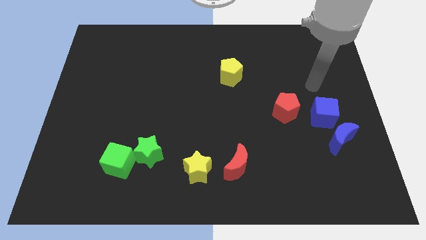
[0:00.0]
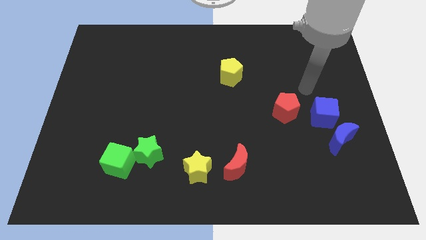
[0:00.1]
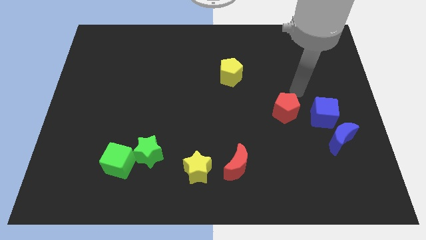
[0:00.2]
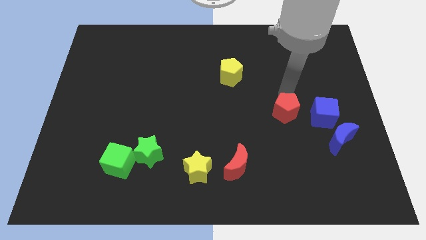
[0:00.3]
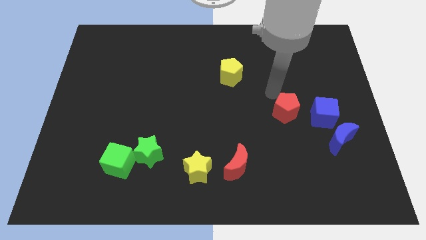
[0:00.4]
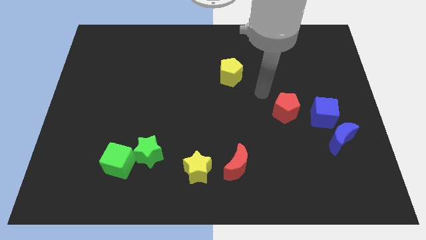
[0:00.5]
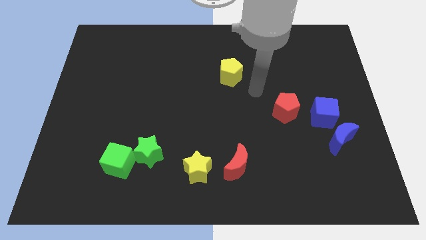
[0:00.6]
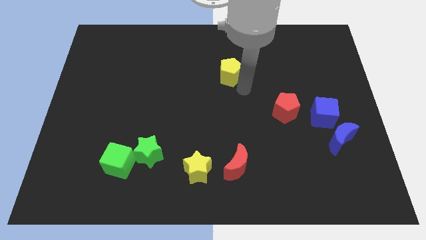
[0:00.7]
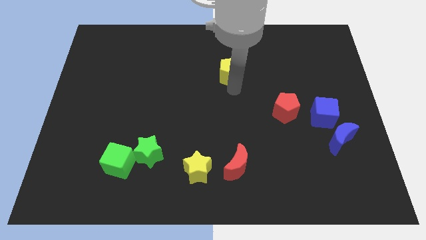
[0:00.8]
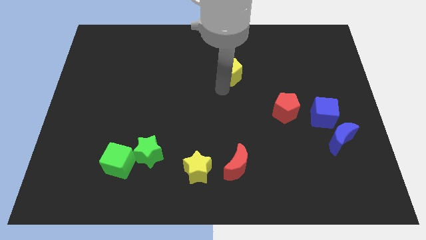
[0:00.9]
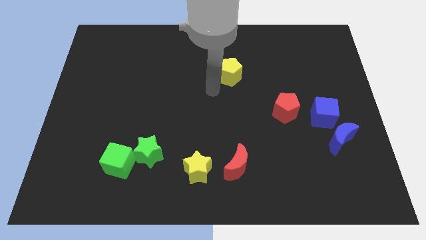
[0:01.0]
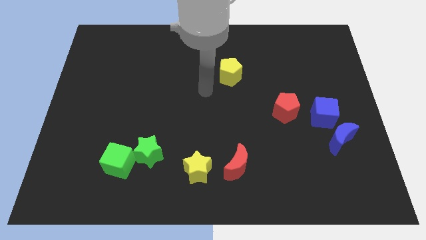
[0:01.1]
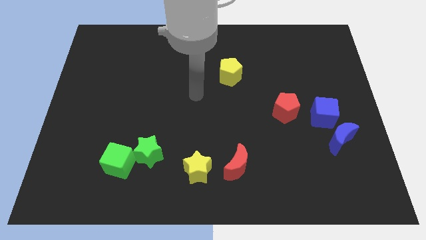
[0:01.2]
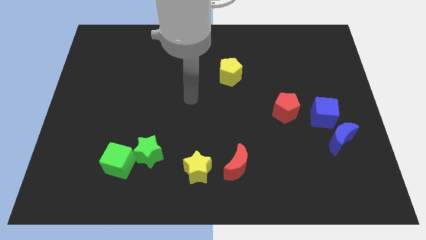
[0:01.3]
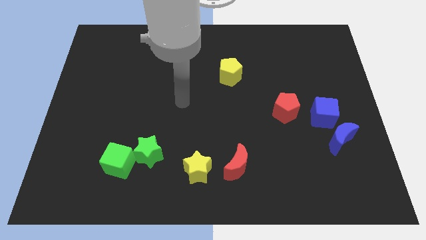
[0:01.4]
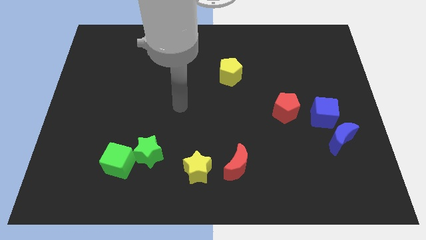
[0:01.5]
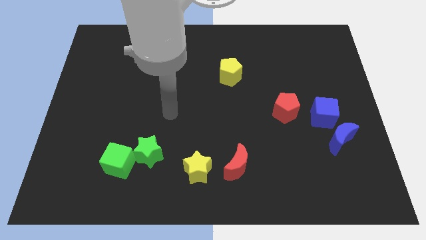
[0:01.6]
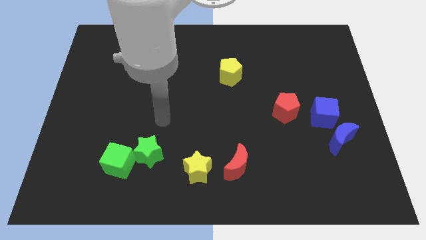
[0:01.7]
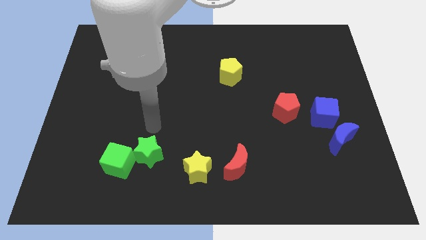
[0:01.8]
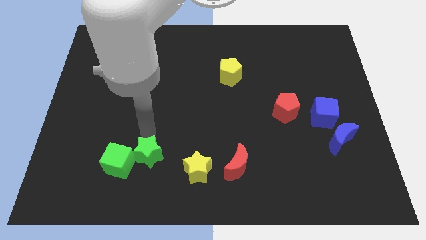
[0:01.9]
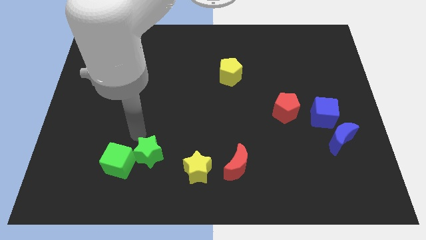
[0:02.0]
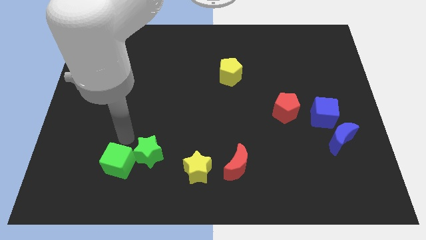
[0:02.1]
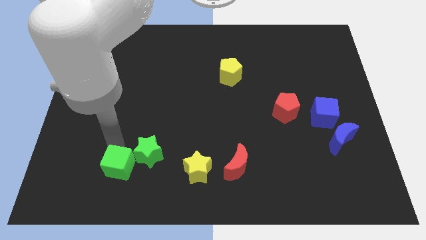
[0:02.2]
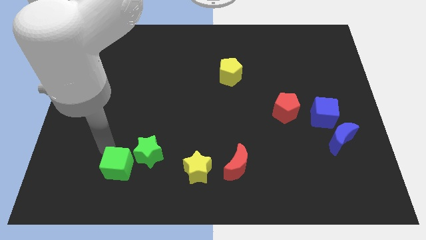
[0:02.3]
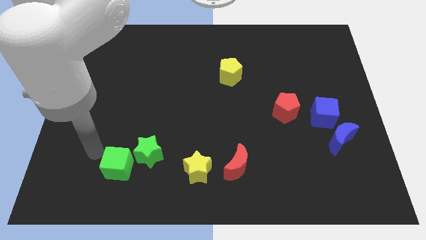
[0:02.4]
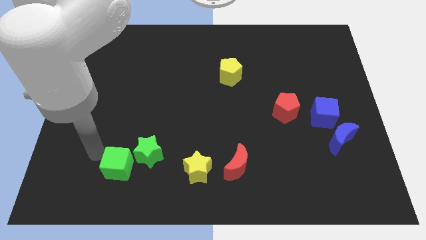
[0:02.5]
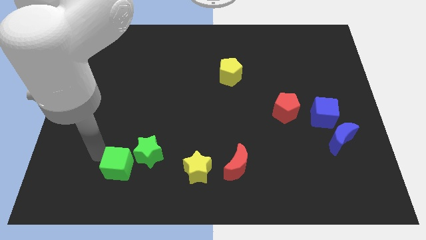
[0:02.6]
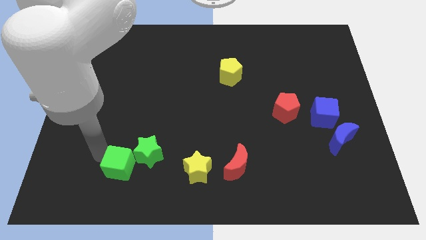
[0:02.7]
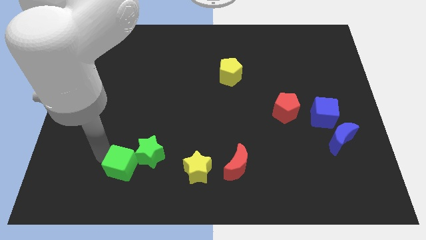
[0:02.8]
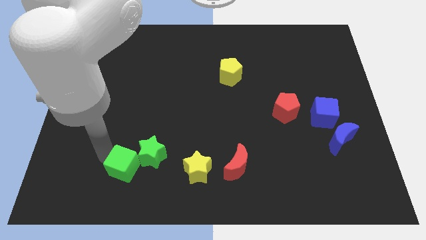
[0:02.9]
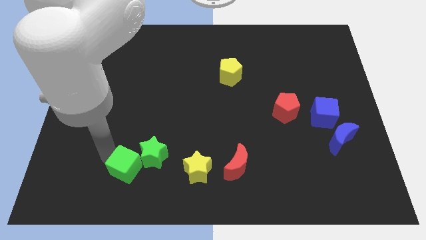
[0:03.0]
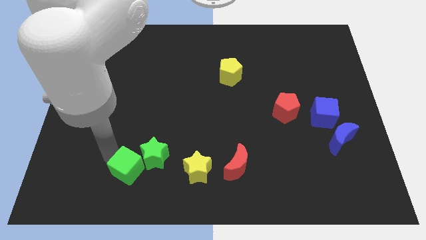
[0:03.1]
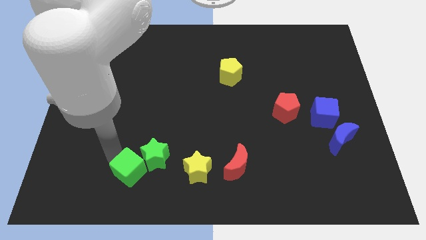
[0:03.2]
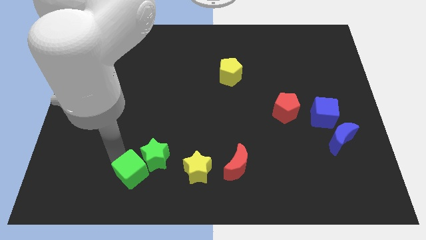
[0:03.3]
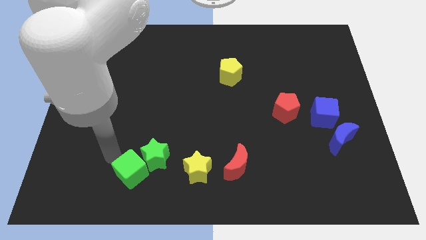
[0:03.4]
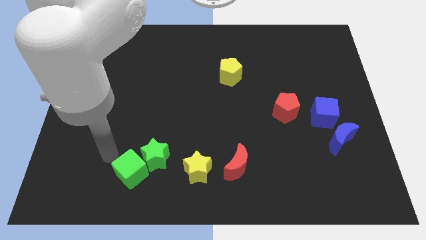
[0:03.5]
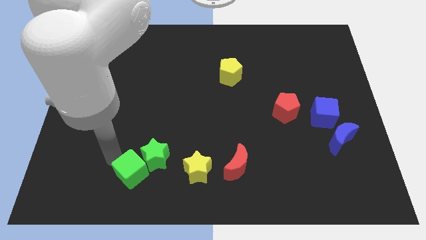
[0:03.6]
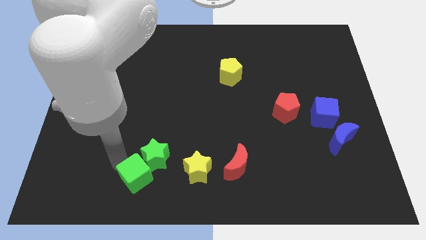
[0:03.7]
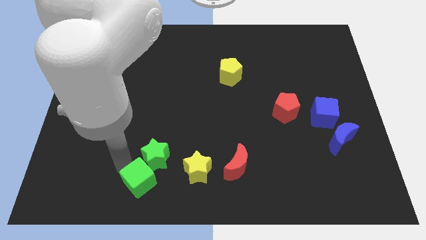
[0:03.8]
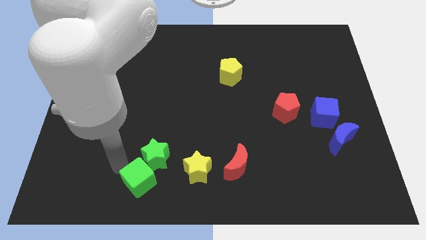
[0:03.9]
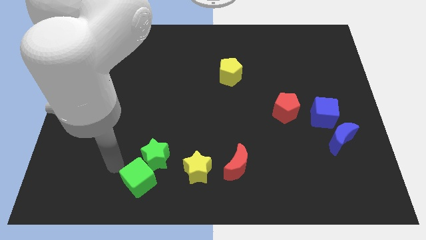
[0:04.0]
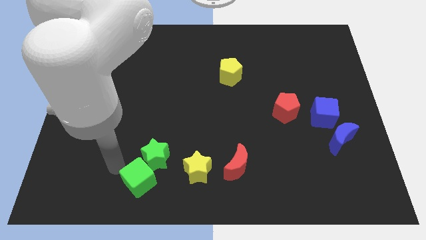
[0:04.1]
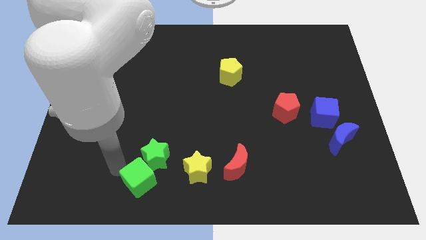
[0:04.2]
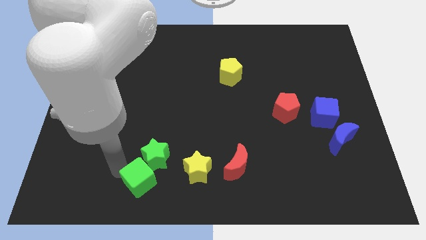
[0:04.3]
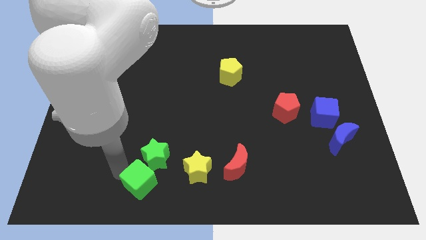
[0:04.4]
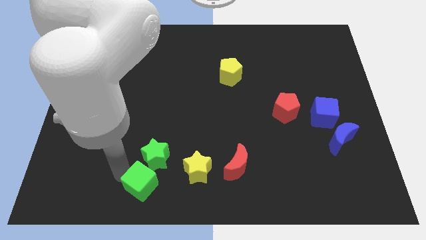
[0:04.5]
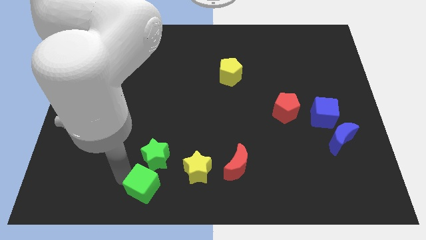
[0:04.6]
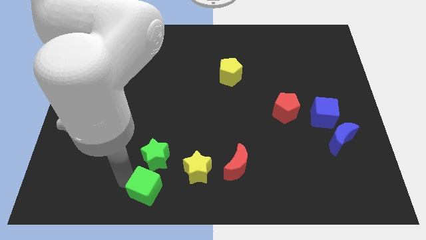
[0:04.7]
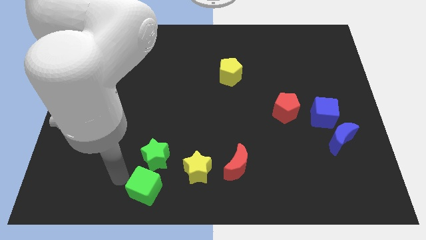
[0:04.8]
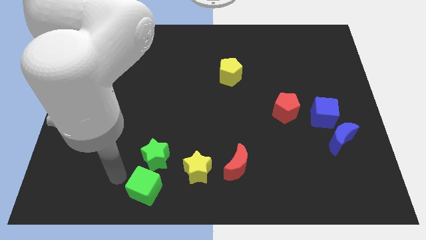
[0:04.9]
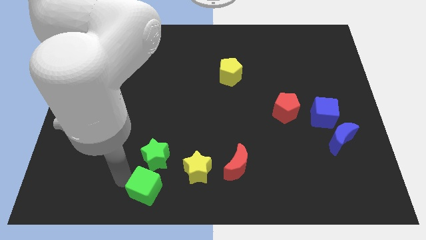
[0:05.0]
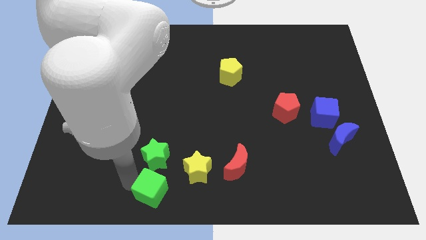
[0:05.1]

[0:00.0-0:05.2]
push the green cube to the bottom

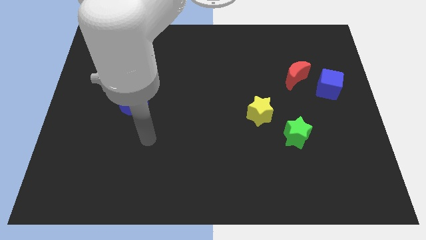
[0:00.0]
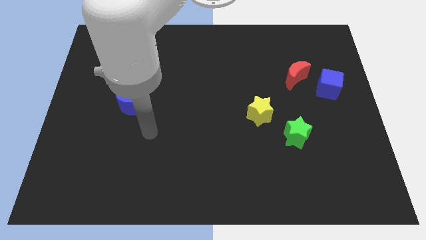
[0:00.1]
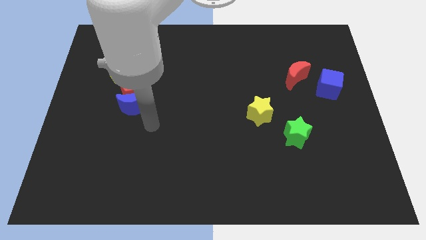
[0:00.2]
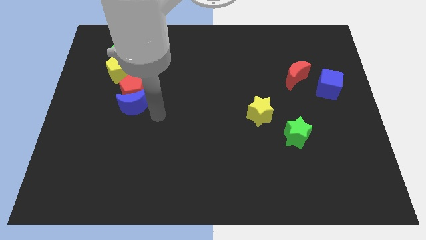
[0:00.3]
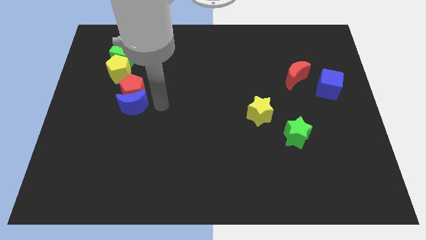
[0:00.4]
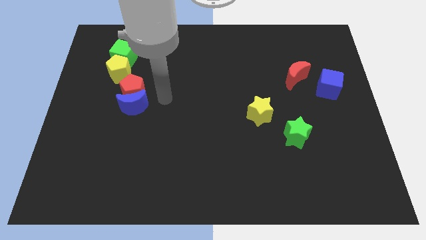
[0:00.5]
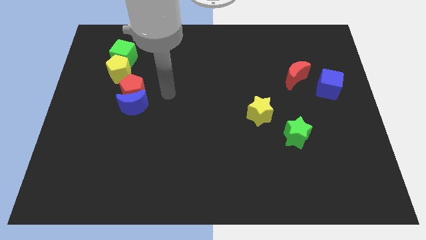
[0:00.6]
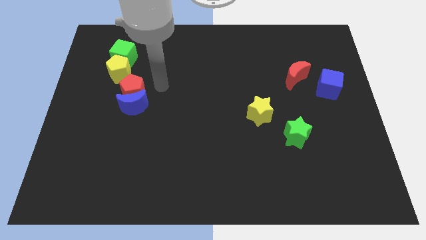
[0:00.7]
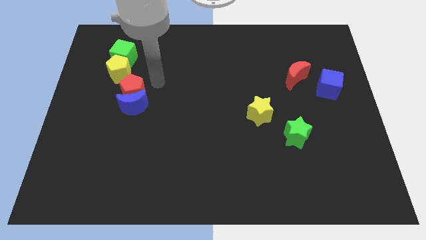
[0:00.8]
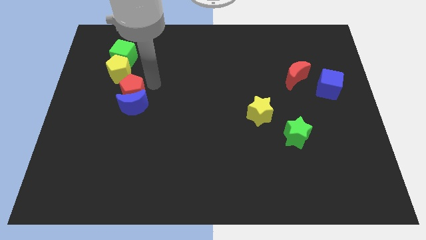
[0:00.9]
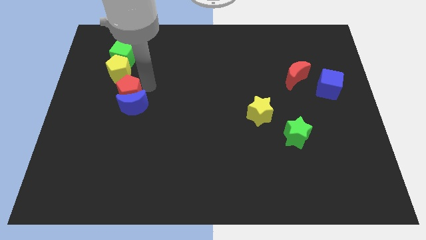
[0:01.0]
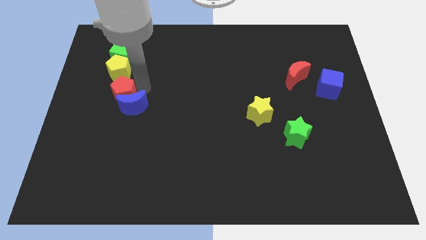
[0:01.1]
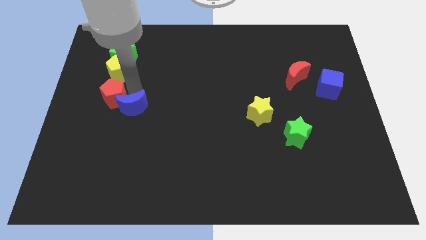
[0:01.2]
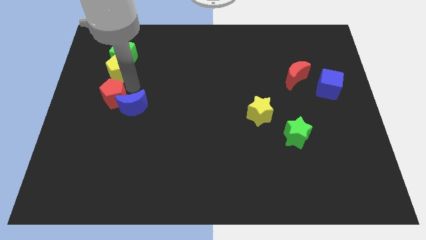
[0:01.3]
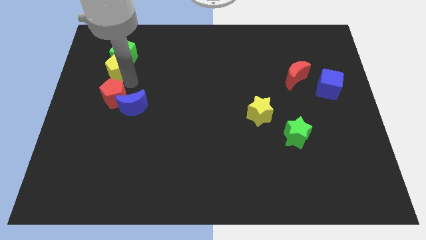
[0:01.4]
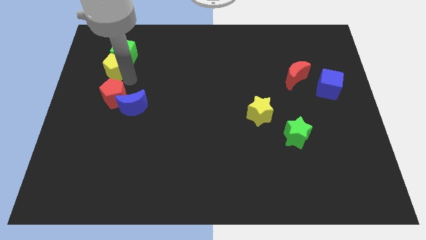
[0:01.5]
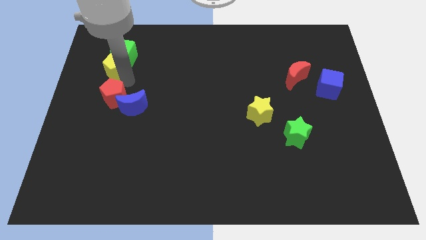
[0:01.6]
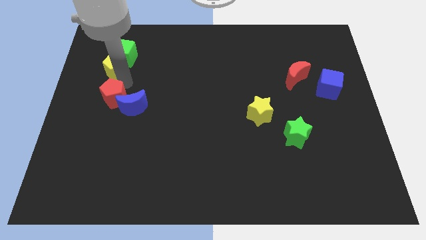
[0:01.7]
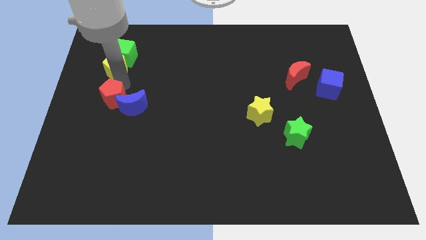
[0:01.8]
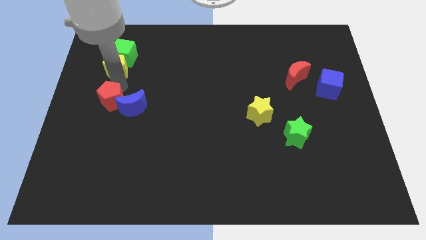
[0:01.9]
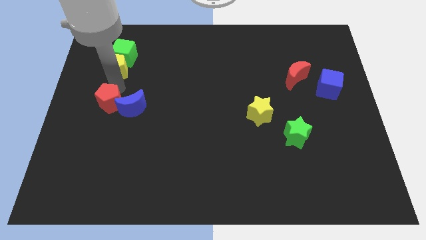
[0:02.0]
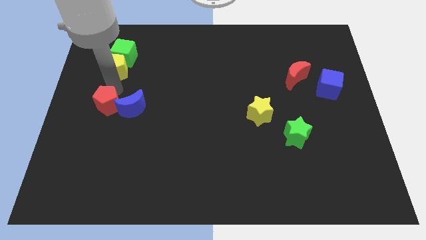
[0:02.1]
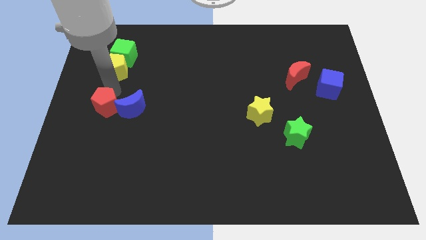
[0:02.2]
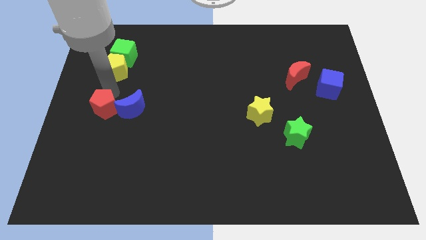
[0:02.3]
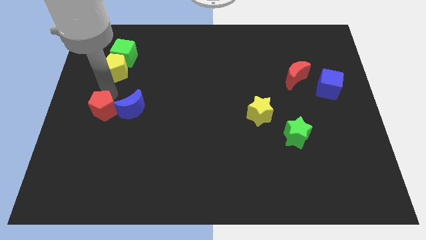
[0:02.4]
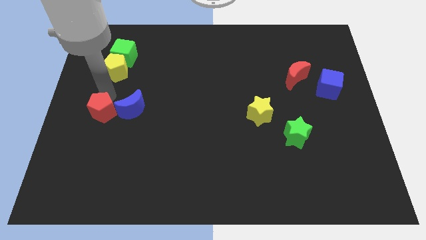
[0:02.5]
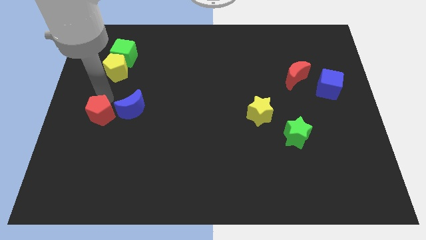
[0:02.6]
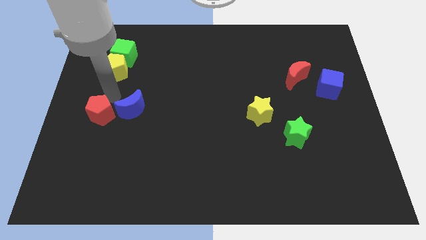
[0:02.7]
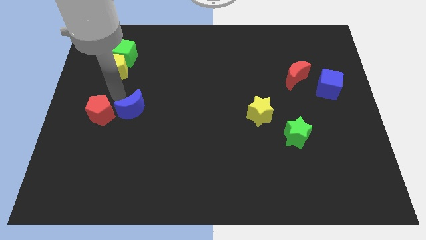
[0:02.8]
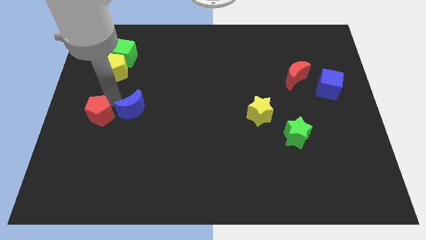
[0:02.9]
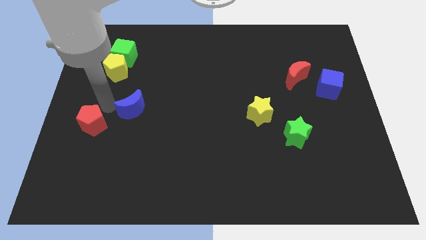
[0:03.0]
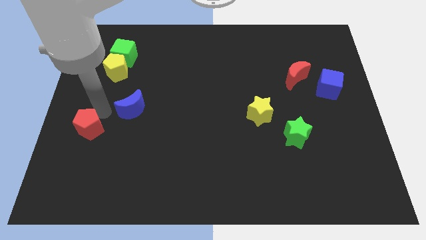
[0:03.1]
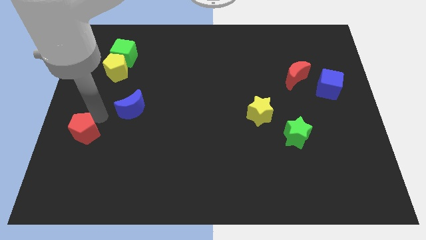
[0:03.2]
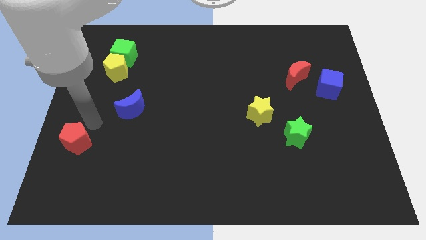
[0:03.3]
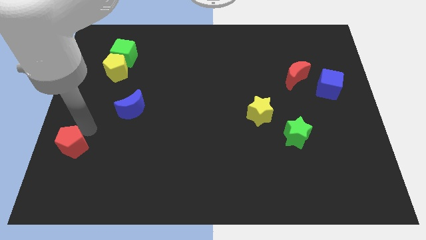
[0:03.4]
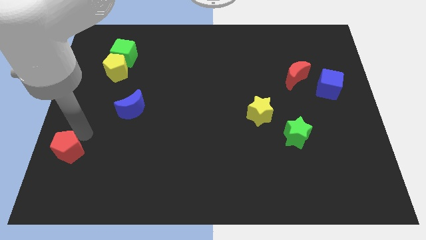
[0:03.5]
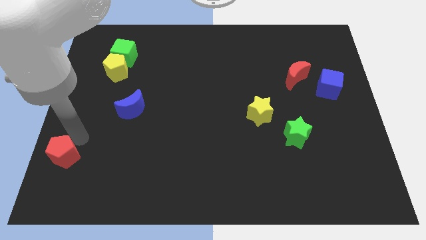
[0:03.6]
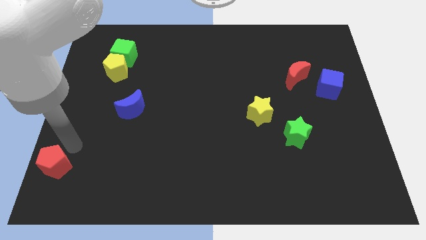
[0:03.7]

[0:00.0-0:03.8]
push the red pentagon to the lower left corner
